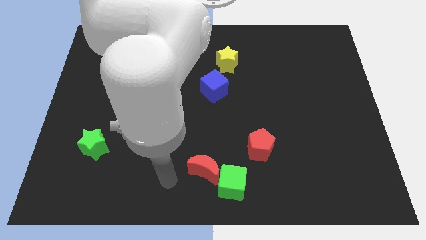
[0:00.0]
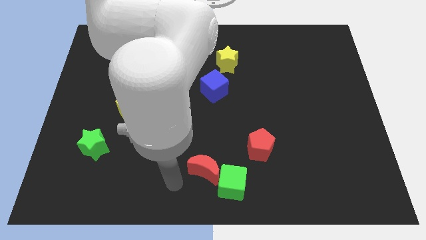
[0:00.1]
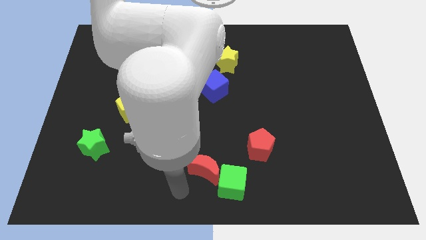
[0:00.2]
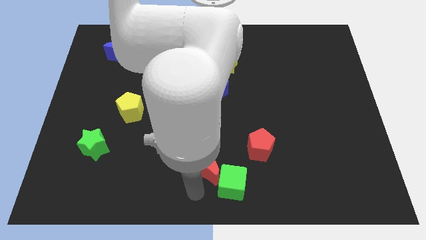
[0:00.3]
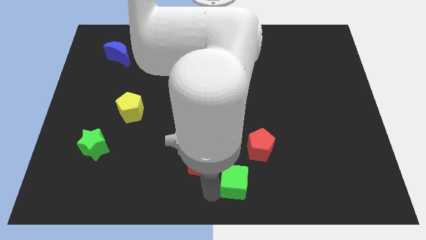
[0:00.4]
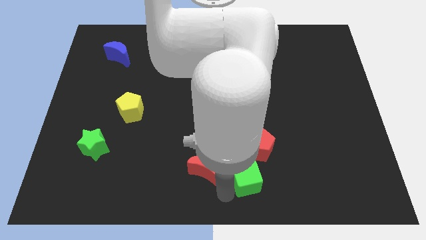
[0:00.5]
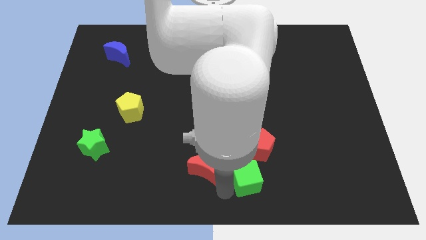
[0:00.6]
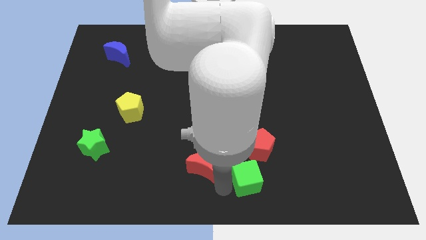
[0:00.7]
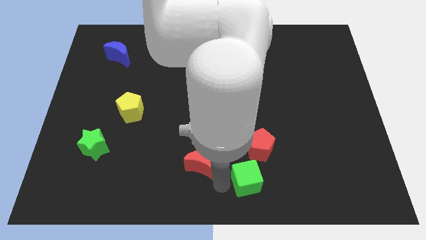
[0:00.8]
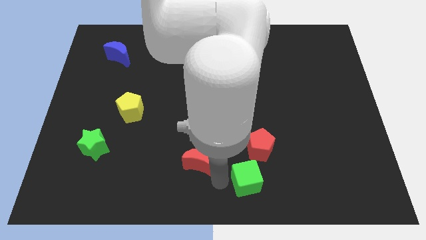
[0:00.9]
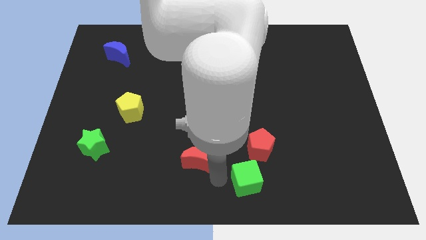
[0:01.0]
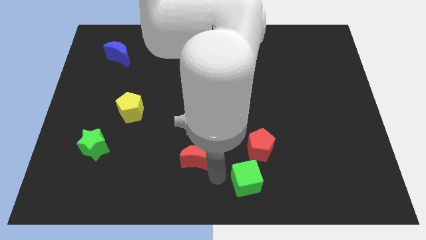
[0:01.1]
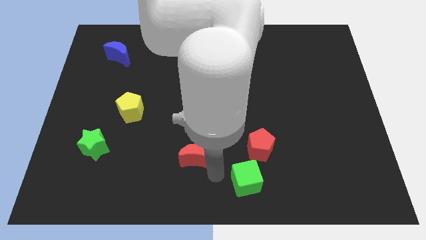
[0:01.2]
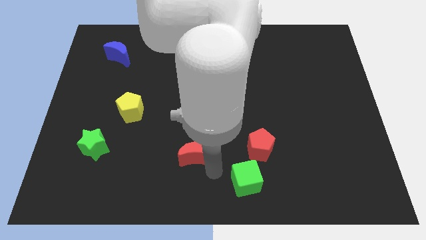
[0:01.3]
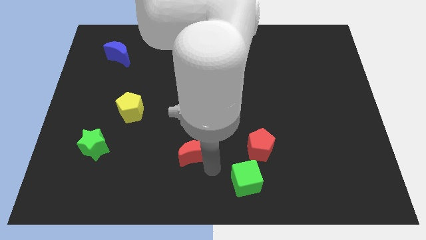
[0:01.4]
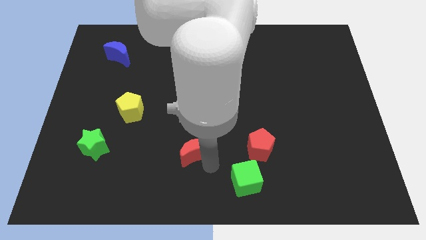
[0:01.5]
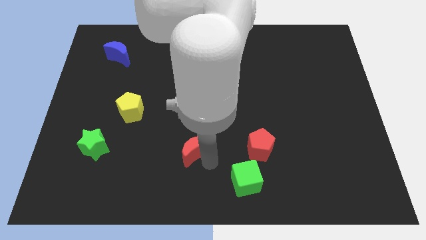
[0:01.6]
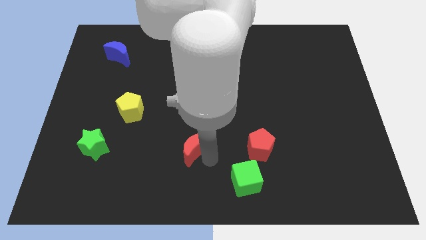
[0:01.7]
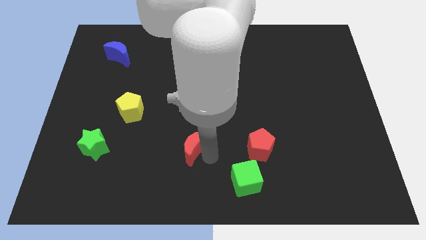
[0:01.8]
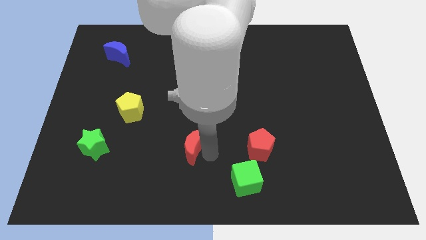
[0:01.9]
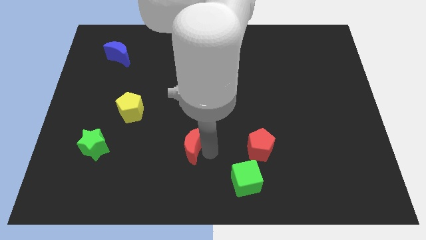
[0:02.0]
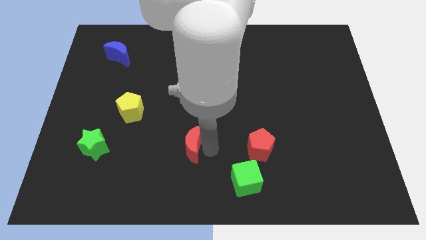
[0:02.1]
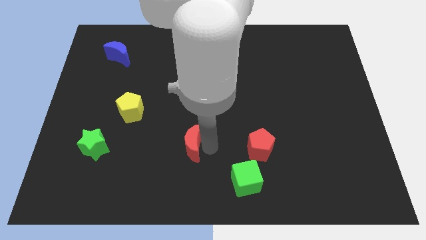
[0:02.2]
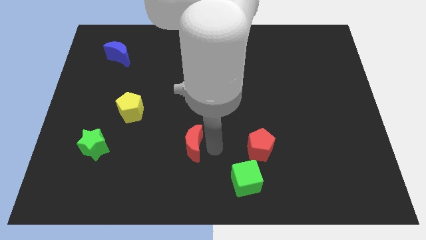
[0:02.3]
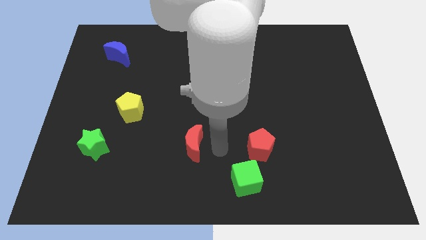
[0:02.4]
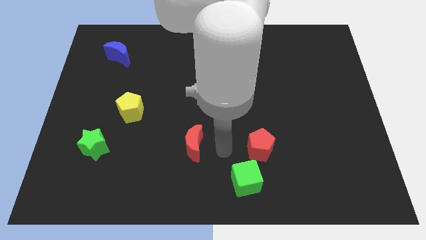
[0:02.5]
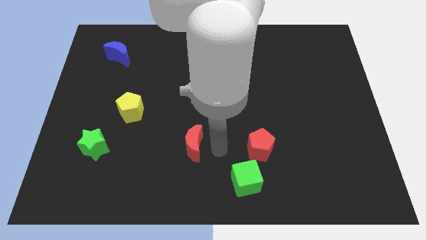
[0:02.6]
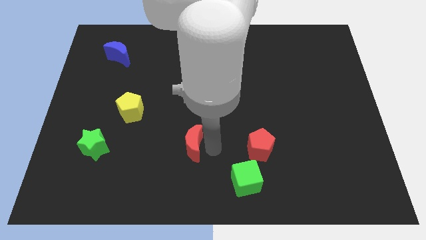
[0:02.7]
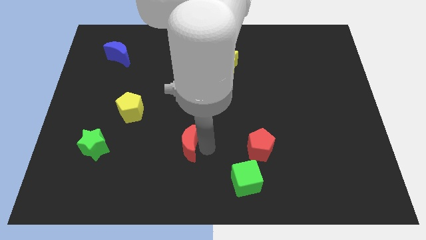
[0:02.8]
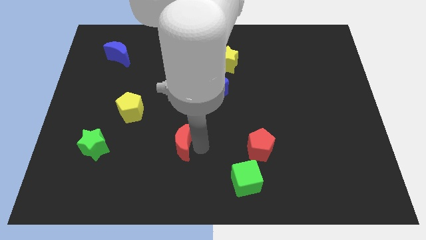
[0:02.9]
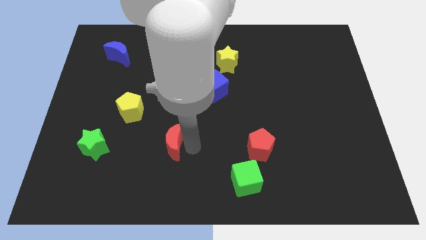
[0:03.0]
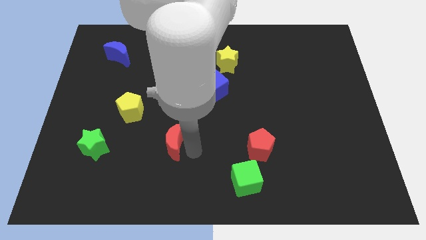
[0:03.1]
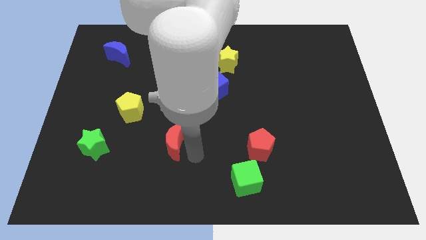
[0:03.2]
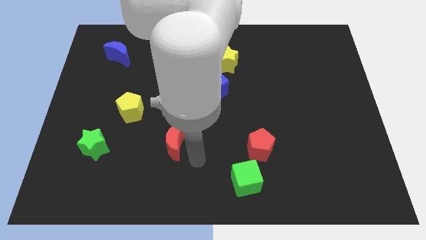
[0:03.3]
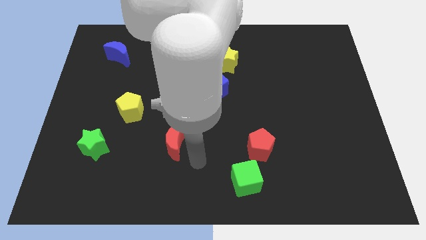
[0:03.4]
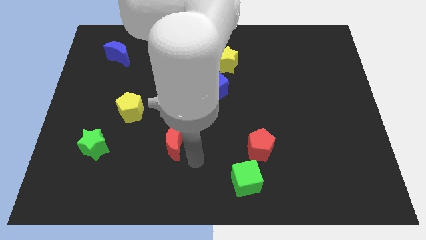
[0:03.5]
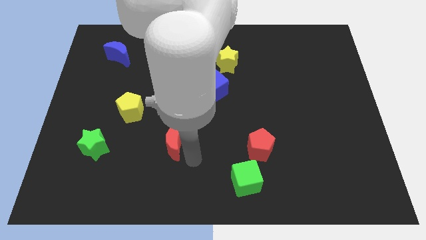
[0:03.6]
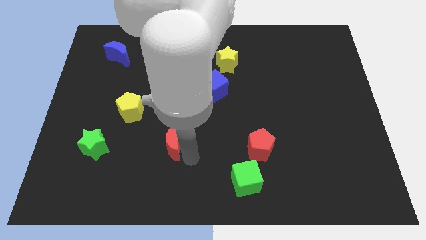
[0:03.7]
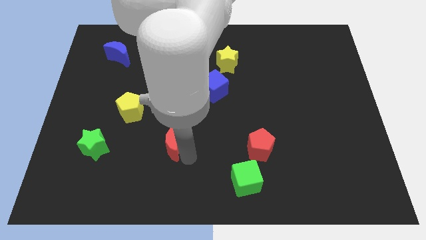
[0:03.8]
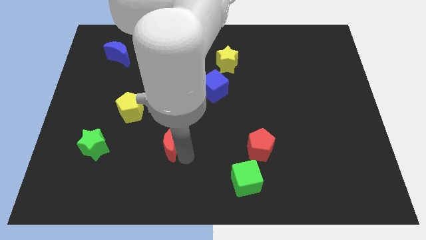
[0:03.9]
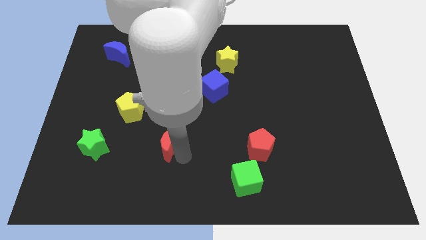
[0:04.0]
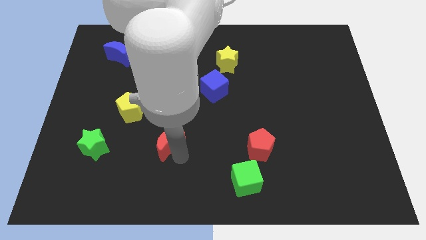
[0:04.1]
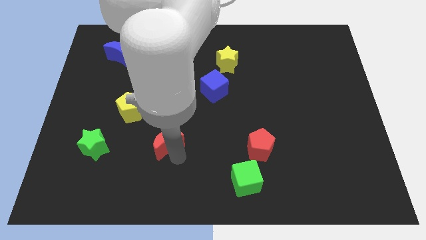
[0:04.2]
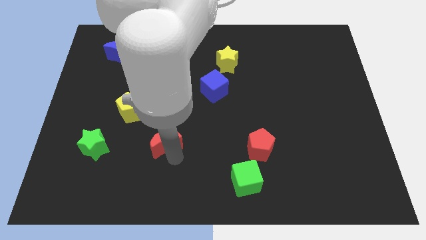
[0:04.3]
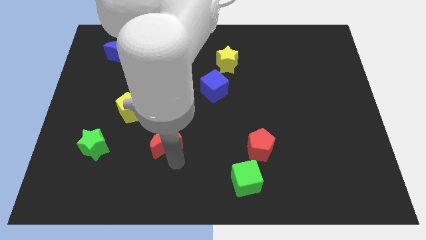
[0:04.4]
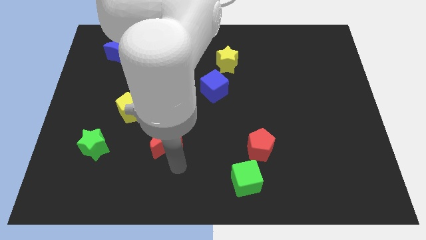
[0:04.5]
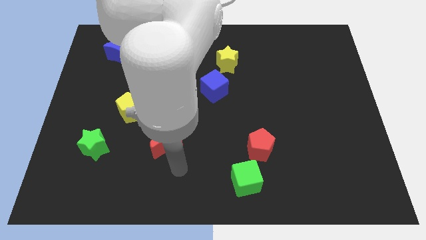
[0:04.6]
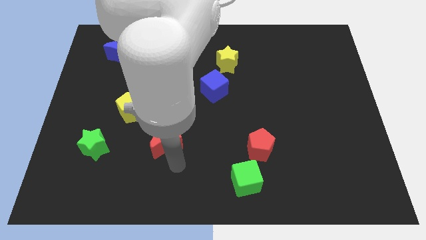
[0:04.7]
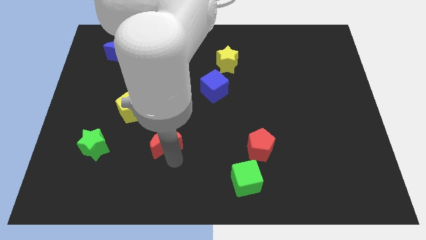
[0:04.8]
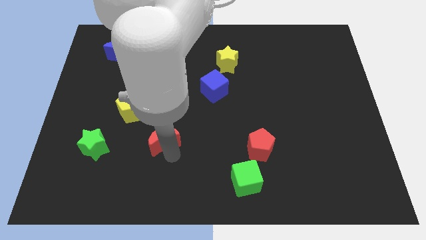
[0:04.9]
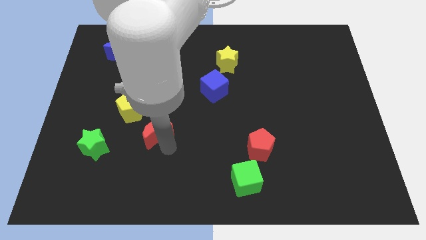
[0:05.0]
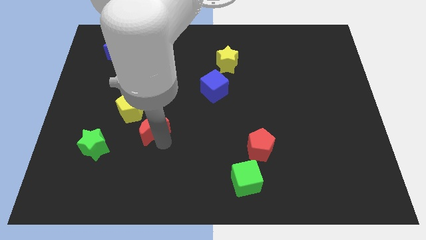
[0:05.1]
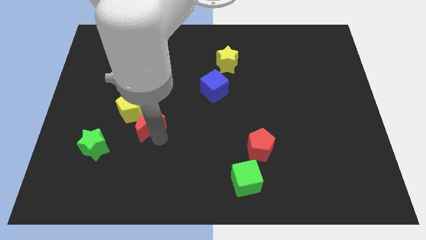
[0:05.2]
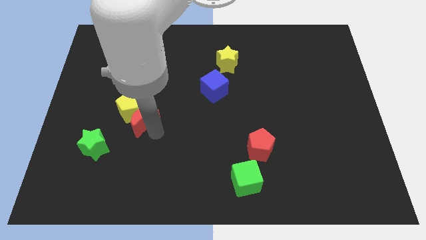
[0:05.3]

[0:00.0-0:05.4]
put the red moon to the yellow pentagon

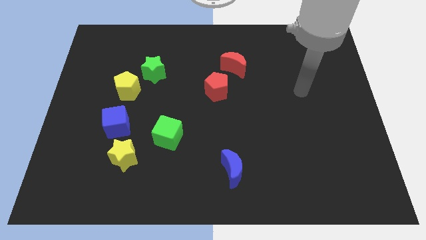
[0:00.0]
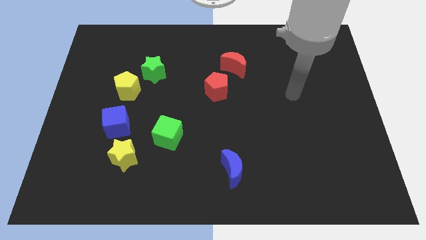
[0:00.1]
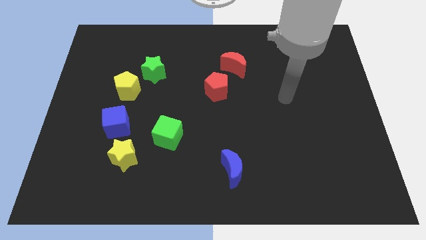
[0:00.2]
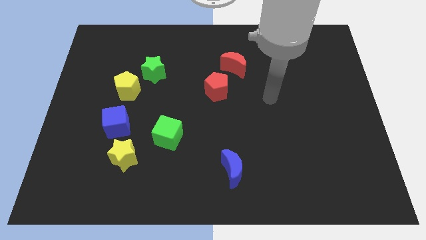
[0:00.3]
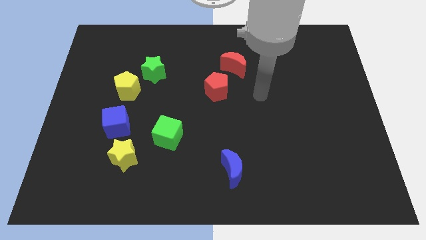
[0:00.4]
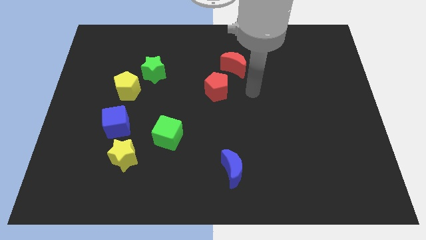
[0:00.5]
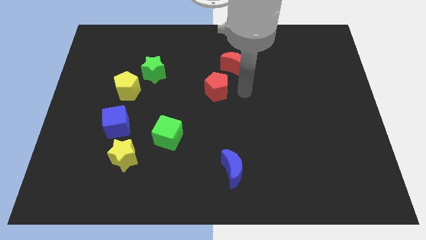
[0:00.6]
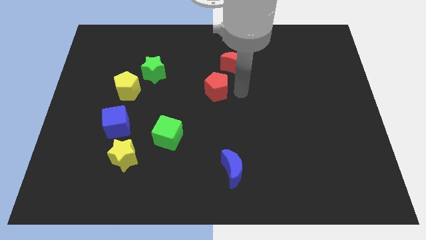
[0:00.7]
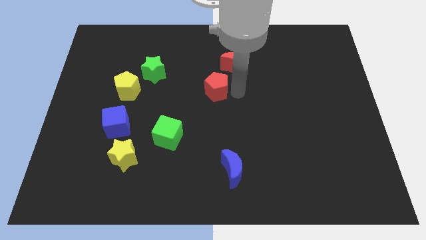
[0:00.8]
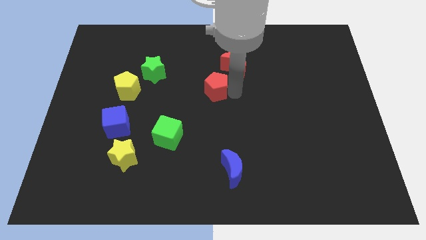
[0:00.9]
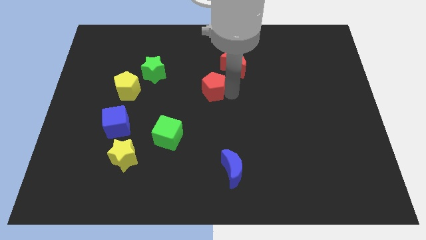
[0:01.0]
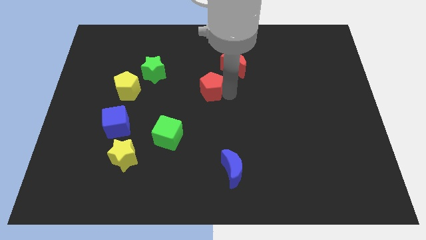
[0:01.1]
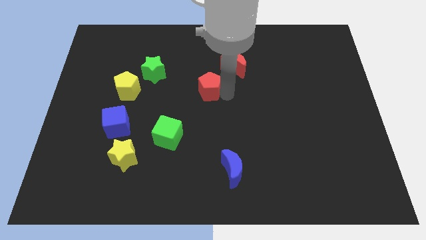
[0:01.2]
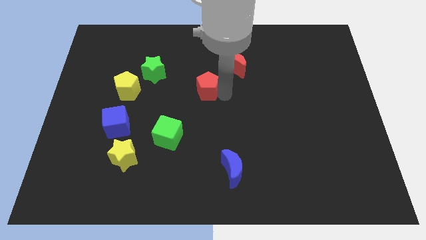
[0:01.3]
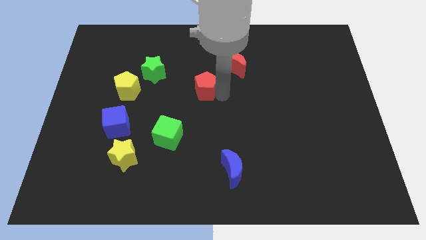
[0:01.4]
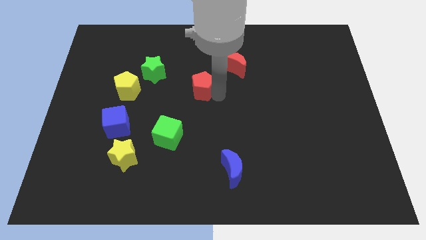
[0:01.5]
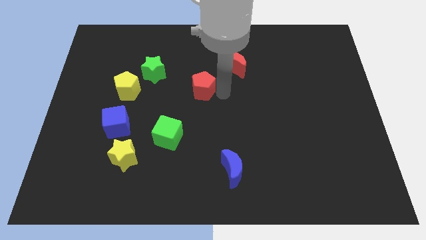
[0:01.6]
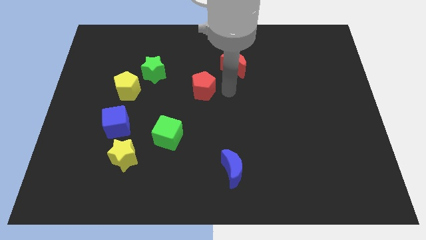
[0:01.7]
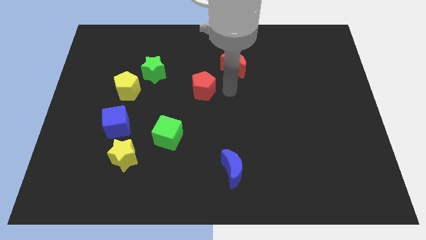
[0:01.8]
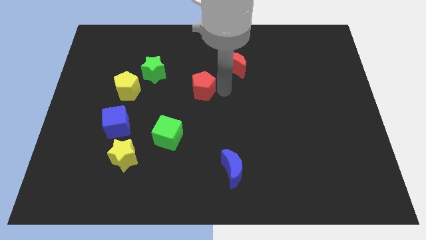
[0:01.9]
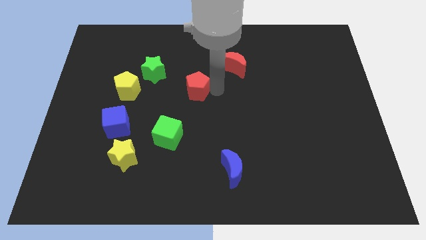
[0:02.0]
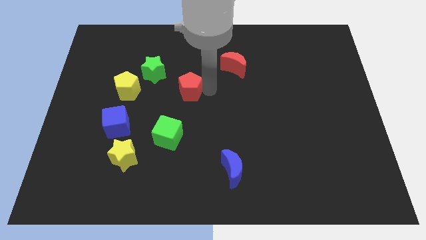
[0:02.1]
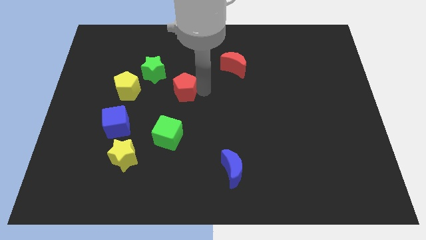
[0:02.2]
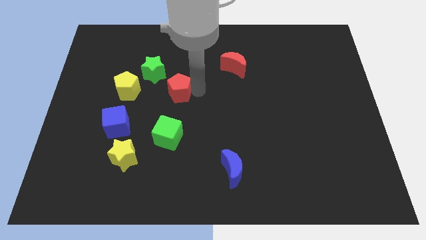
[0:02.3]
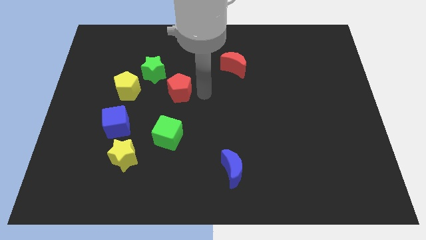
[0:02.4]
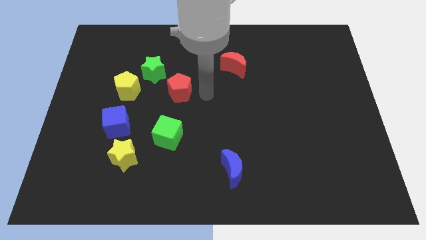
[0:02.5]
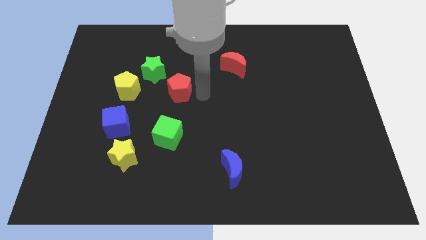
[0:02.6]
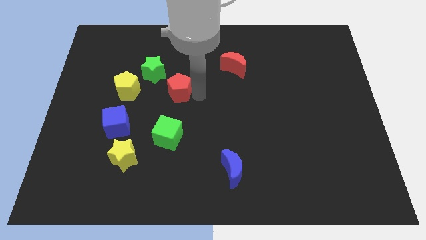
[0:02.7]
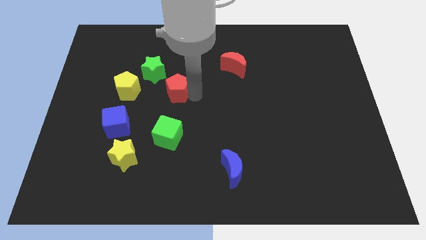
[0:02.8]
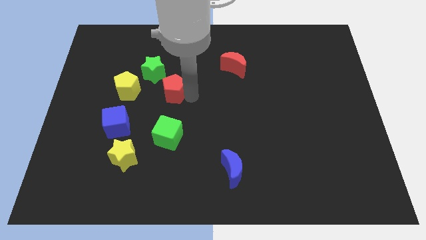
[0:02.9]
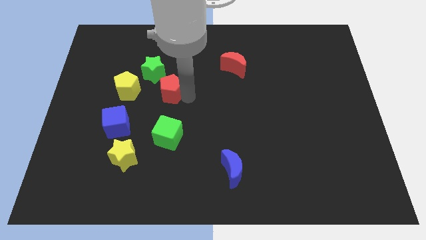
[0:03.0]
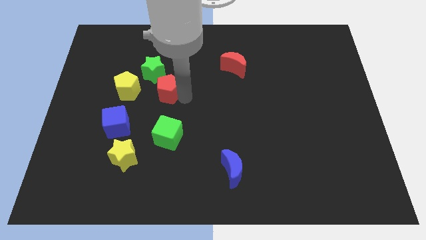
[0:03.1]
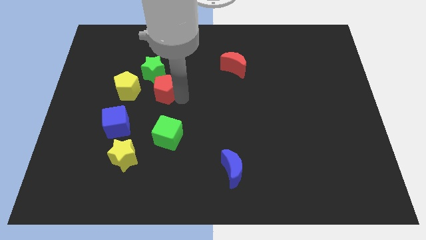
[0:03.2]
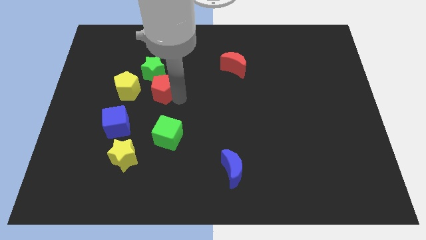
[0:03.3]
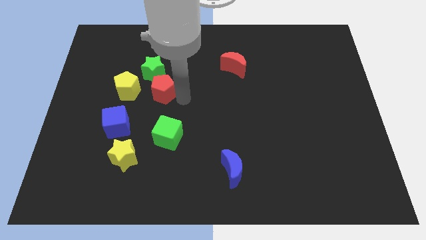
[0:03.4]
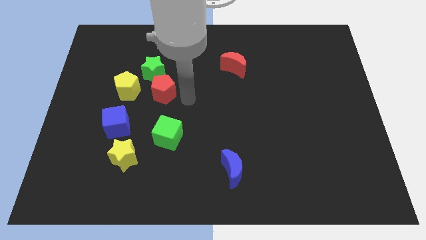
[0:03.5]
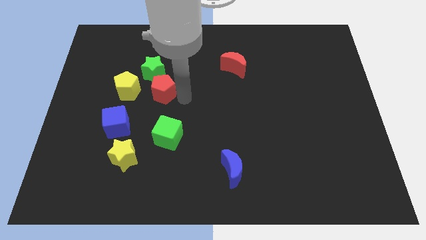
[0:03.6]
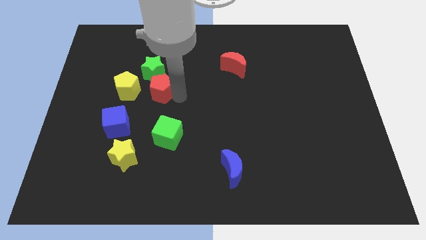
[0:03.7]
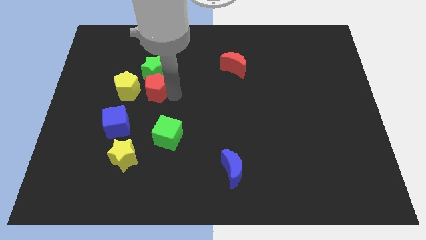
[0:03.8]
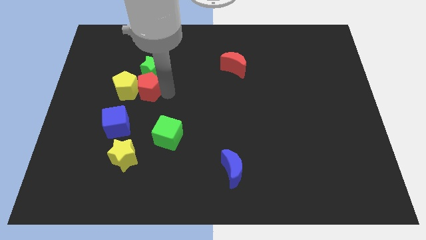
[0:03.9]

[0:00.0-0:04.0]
slide the red pentagon to the yellow pentagon
